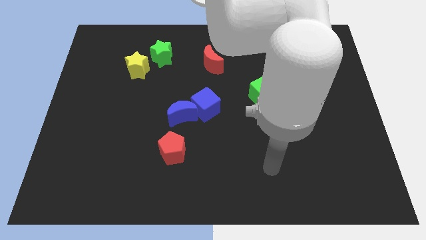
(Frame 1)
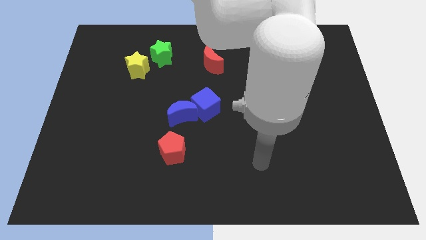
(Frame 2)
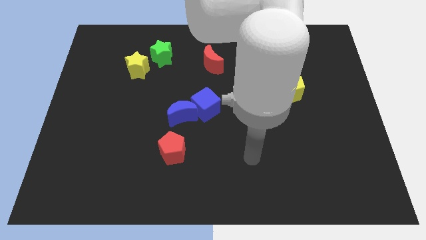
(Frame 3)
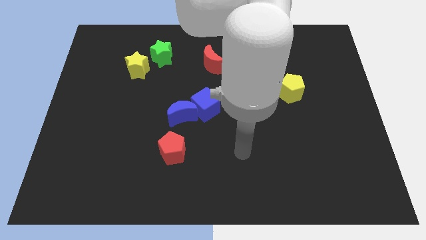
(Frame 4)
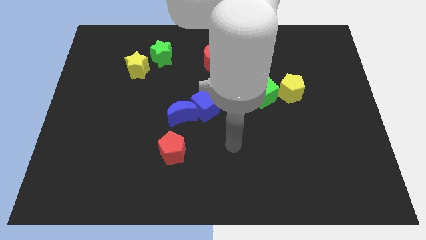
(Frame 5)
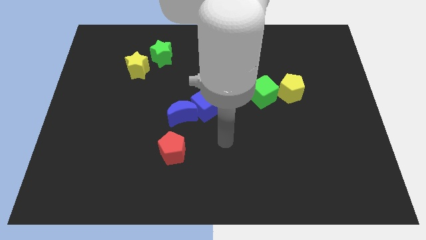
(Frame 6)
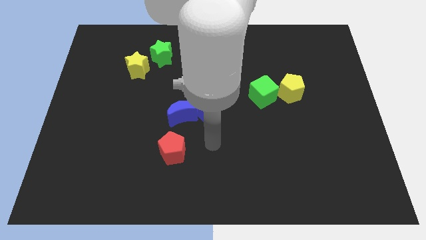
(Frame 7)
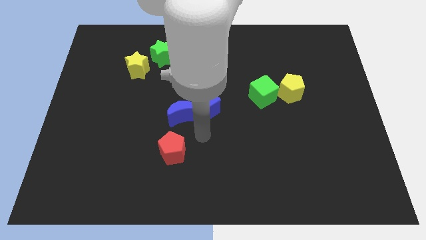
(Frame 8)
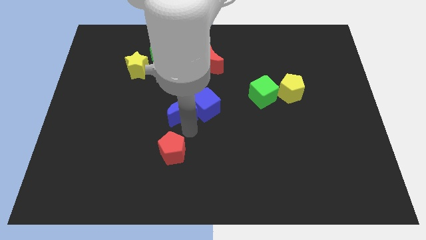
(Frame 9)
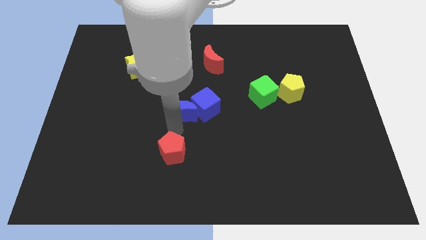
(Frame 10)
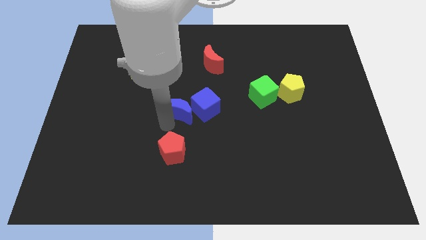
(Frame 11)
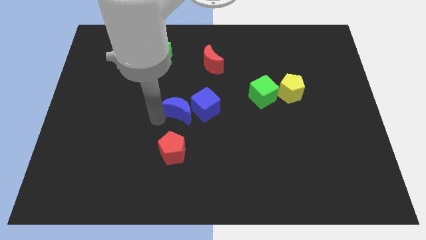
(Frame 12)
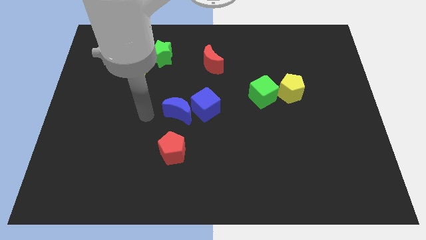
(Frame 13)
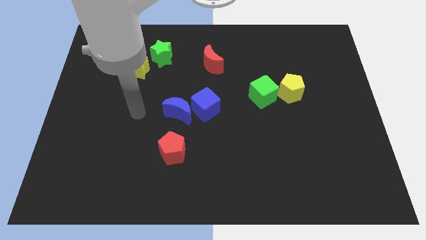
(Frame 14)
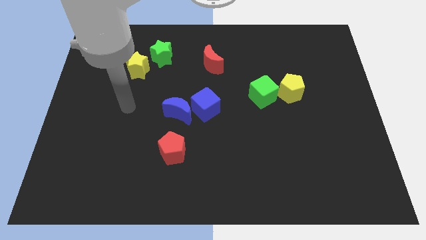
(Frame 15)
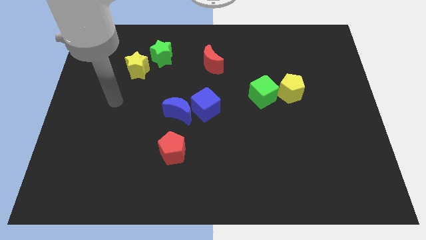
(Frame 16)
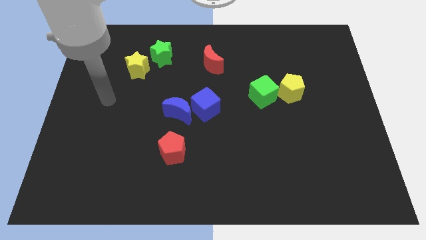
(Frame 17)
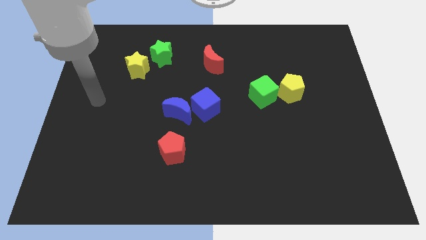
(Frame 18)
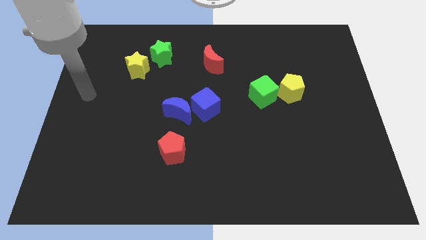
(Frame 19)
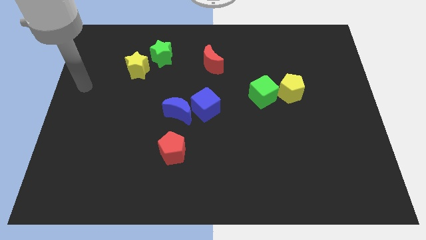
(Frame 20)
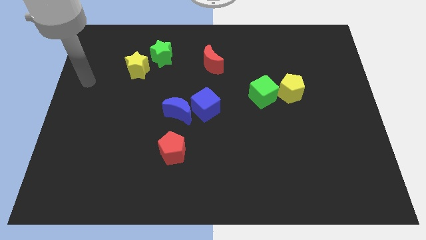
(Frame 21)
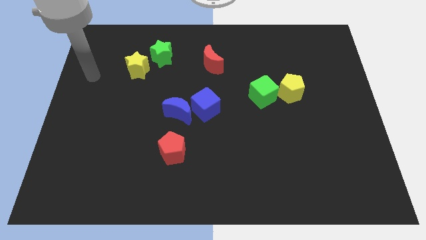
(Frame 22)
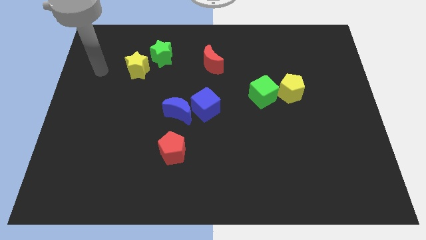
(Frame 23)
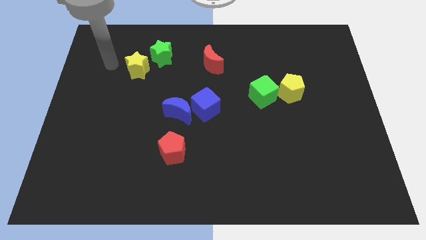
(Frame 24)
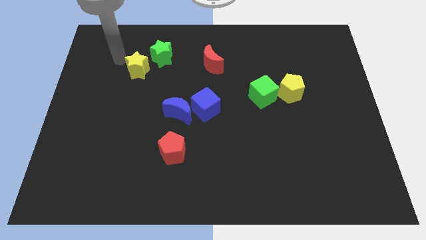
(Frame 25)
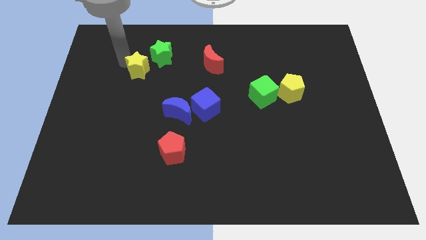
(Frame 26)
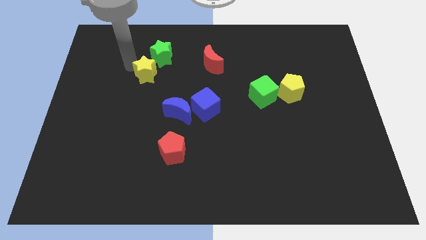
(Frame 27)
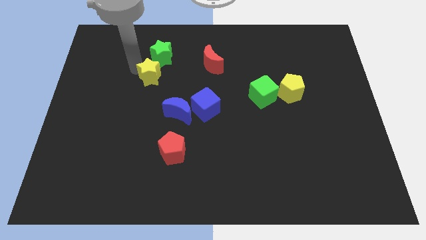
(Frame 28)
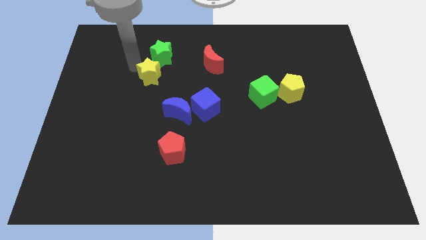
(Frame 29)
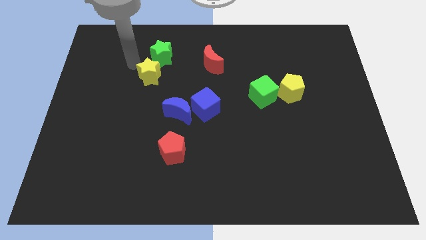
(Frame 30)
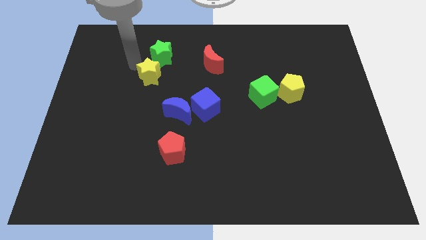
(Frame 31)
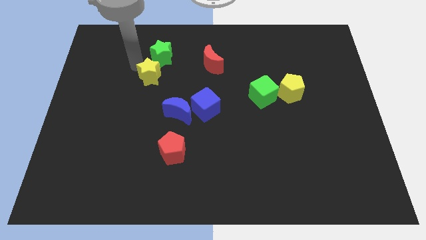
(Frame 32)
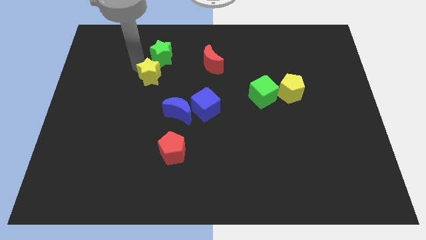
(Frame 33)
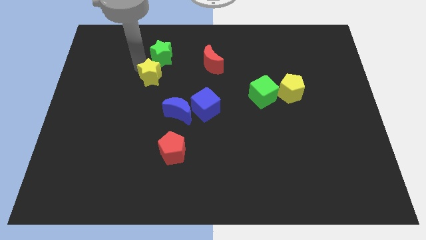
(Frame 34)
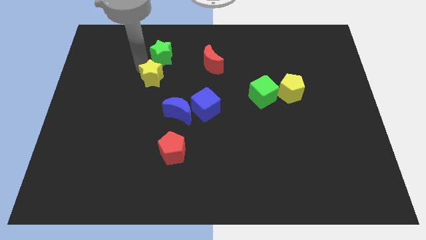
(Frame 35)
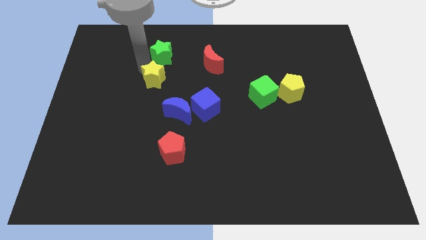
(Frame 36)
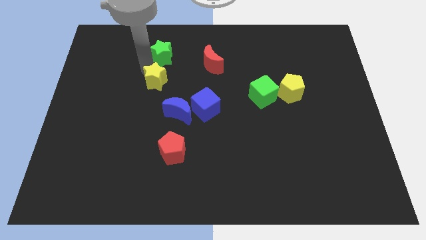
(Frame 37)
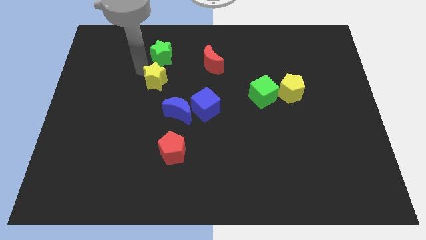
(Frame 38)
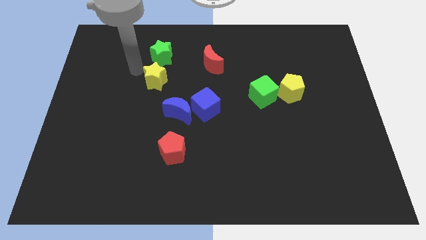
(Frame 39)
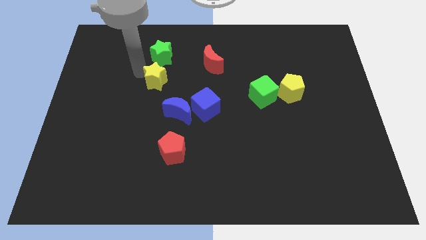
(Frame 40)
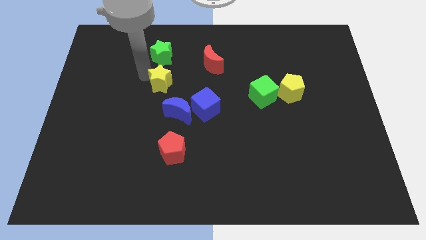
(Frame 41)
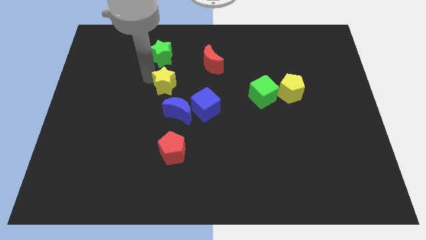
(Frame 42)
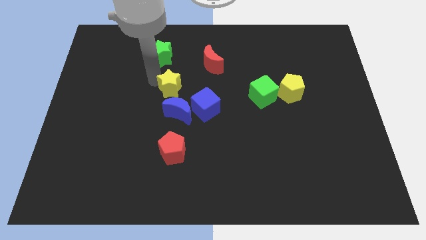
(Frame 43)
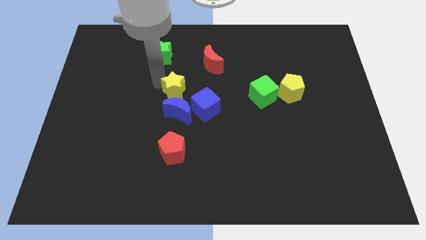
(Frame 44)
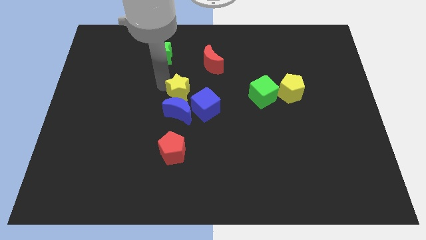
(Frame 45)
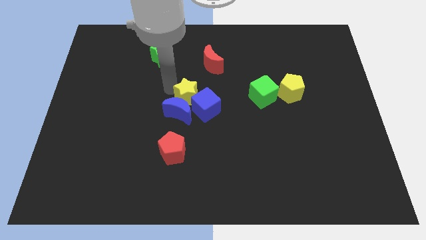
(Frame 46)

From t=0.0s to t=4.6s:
move the yellow star towards the blue cube

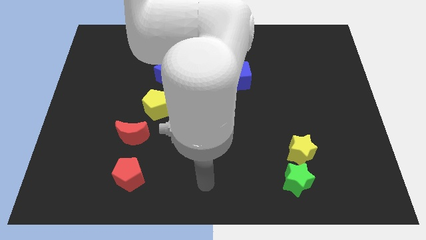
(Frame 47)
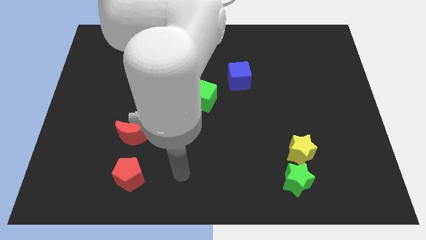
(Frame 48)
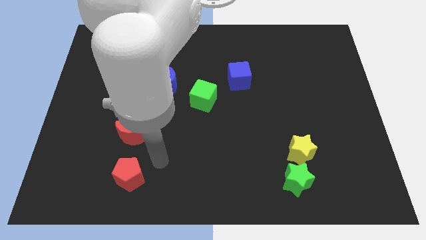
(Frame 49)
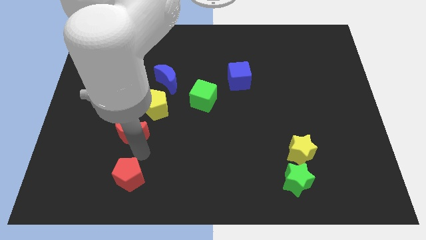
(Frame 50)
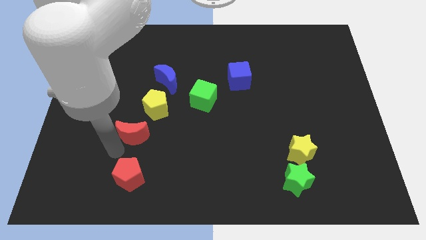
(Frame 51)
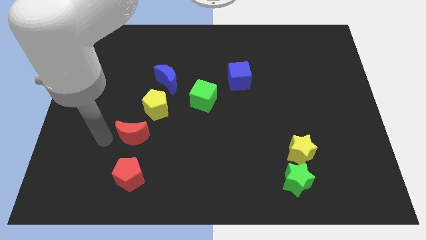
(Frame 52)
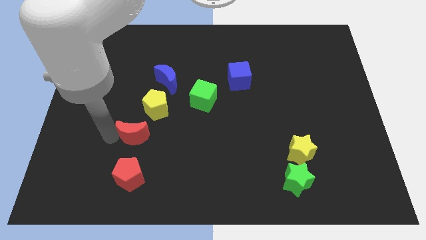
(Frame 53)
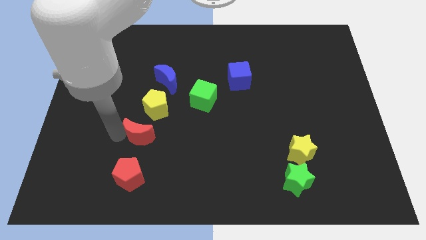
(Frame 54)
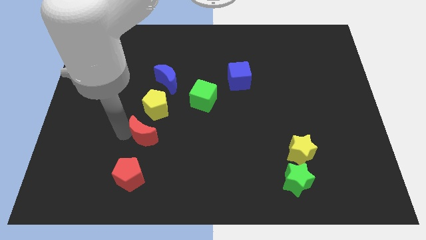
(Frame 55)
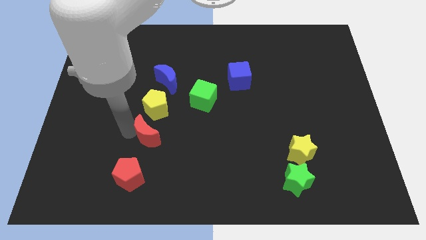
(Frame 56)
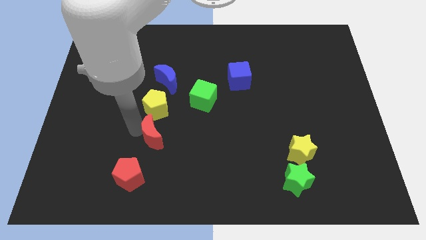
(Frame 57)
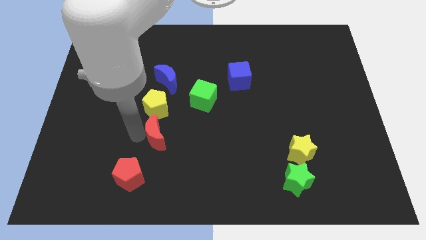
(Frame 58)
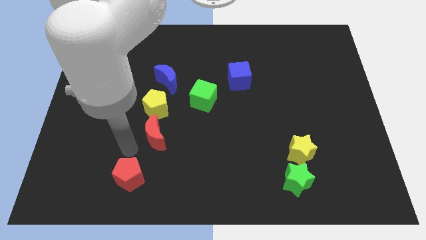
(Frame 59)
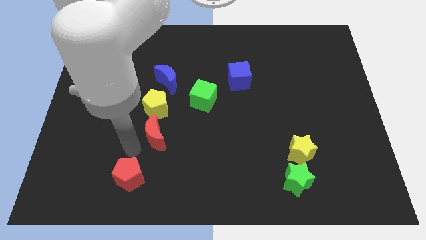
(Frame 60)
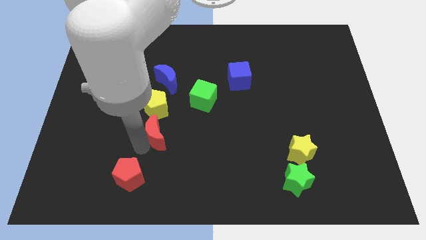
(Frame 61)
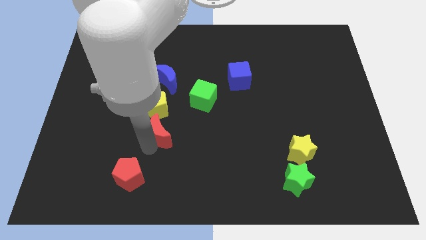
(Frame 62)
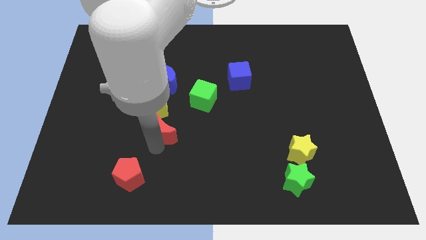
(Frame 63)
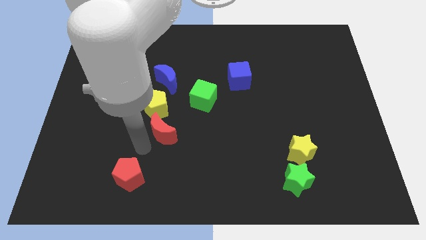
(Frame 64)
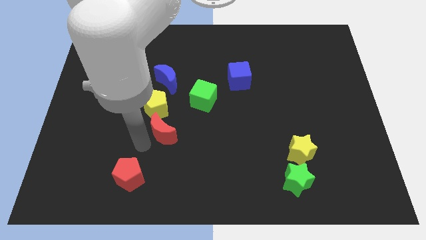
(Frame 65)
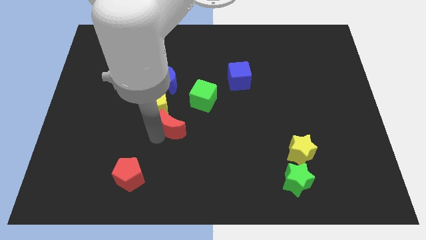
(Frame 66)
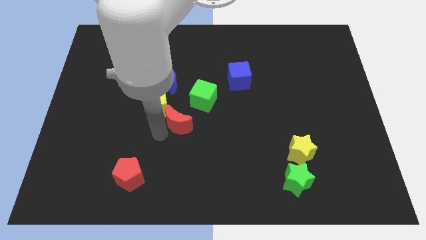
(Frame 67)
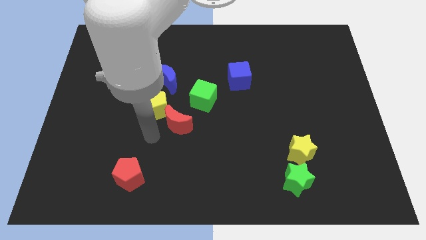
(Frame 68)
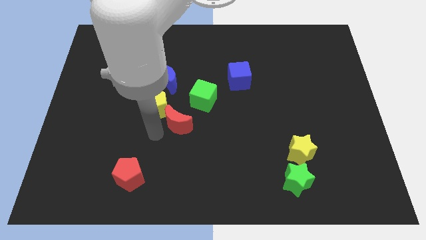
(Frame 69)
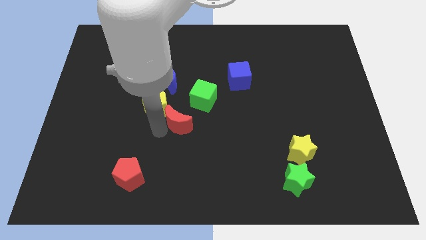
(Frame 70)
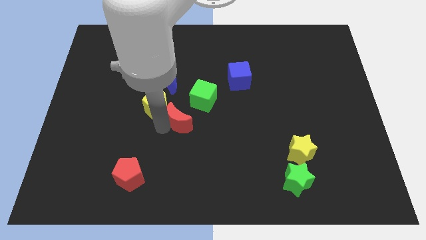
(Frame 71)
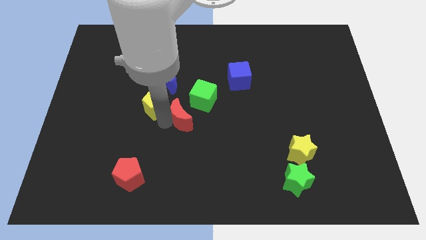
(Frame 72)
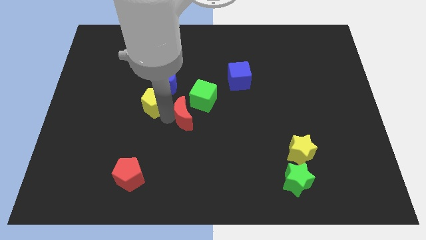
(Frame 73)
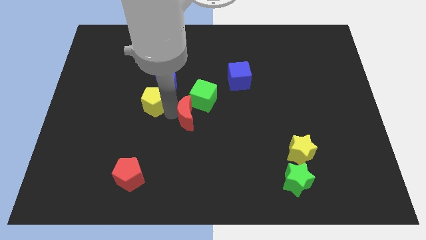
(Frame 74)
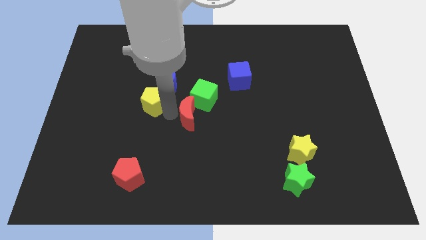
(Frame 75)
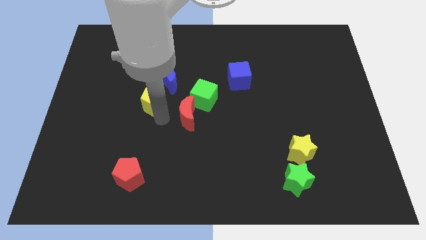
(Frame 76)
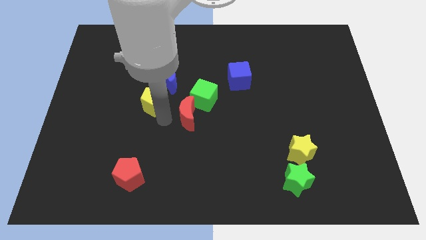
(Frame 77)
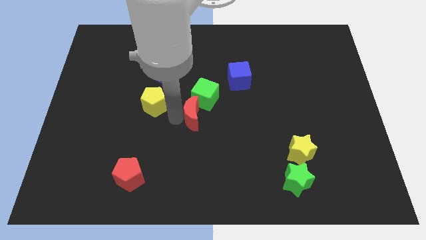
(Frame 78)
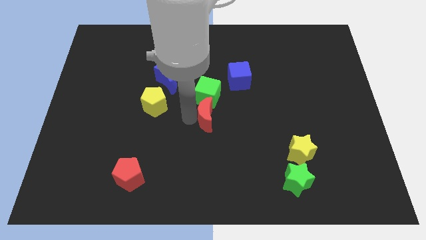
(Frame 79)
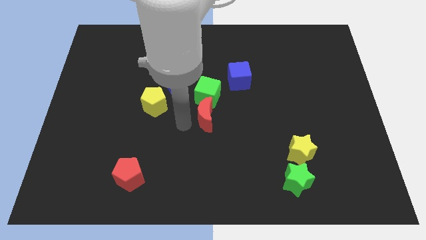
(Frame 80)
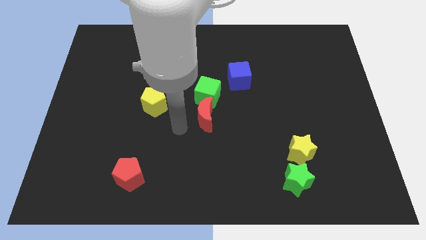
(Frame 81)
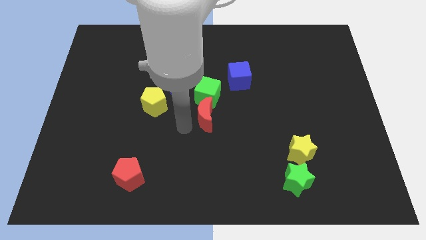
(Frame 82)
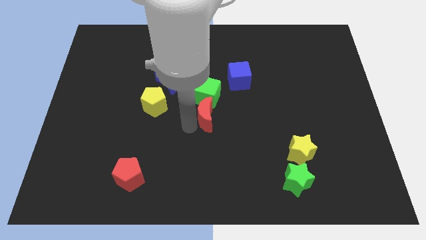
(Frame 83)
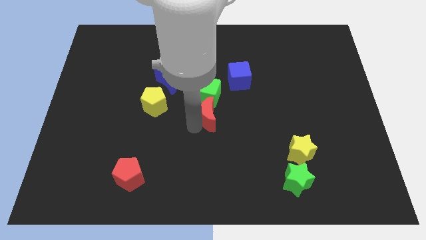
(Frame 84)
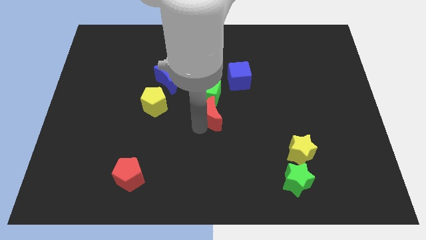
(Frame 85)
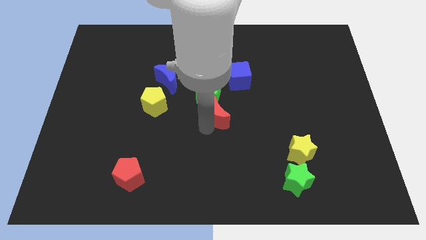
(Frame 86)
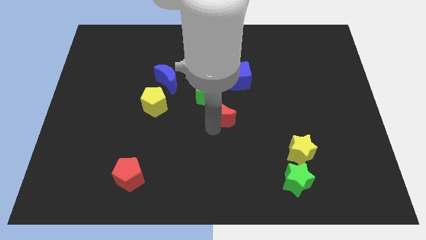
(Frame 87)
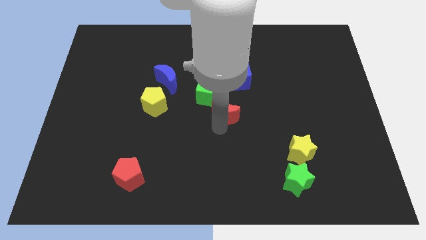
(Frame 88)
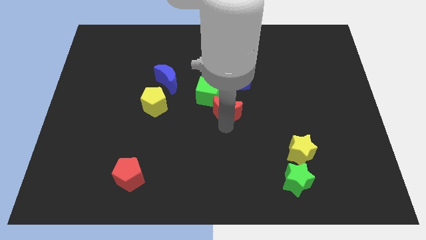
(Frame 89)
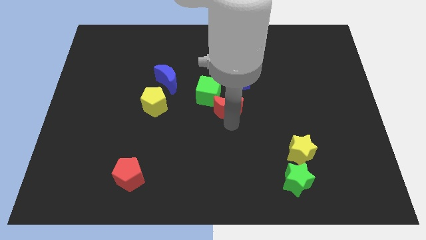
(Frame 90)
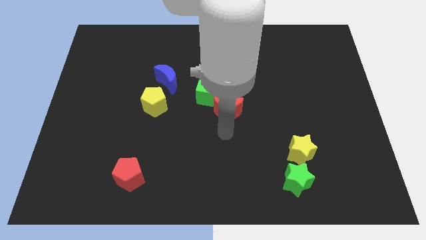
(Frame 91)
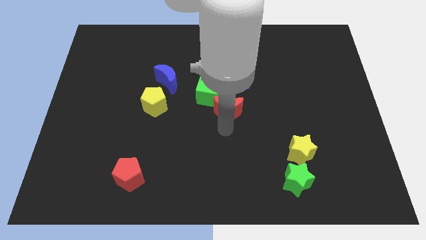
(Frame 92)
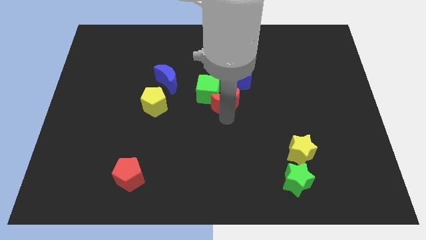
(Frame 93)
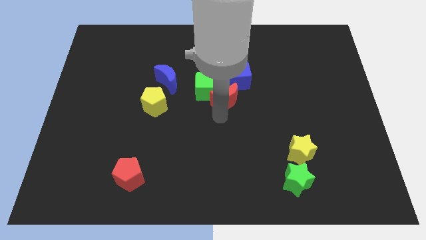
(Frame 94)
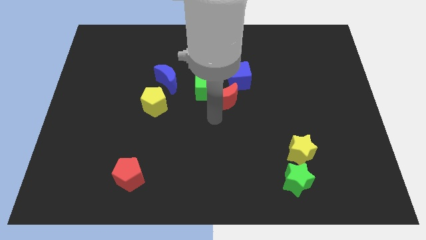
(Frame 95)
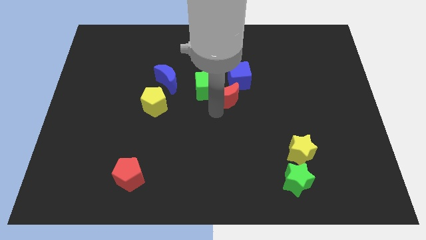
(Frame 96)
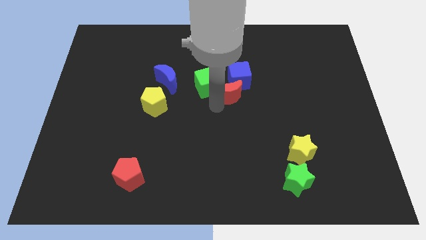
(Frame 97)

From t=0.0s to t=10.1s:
push the red moon towards the blue cube
